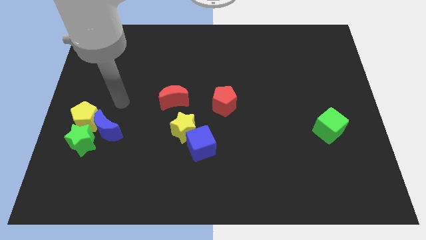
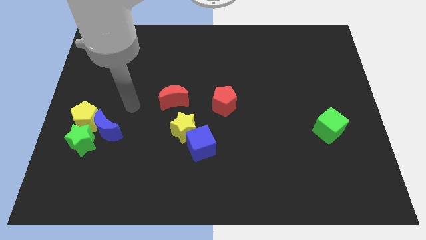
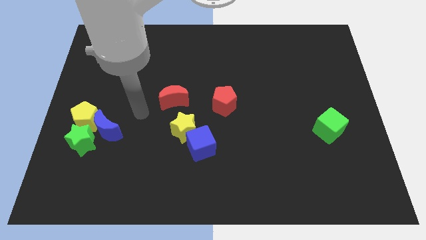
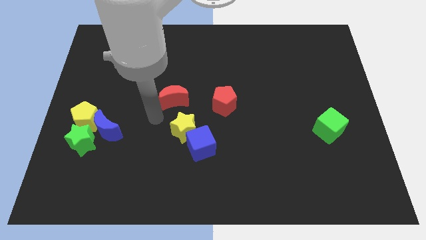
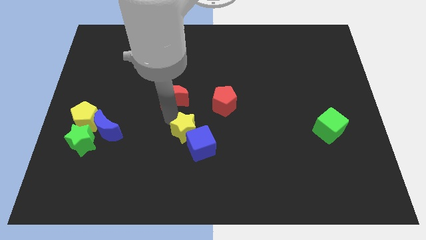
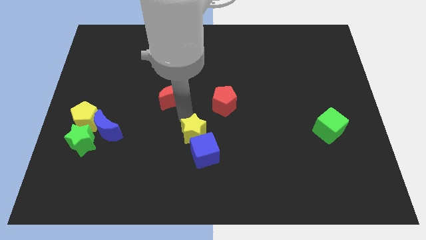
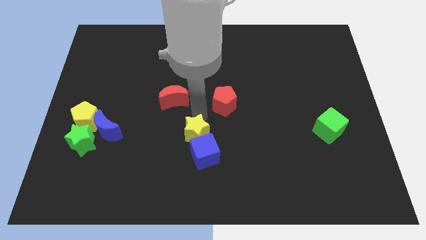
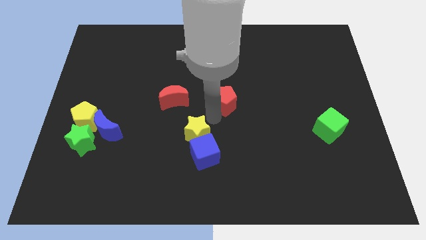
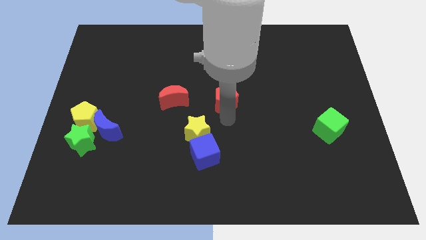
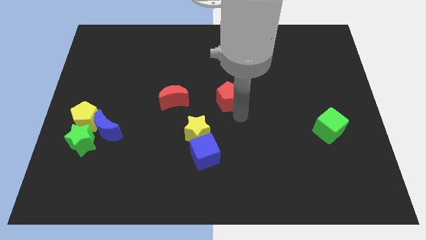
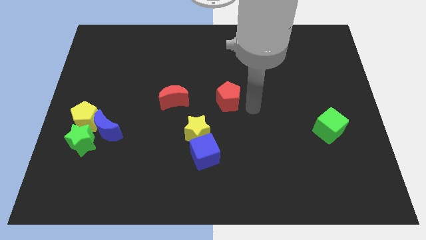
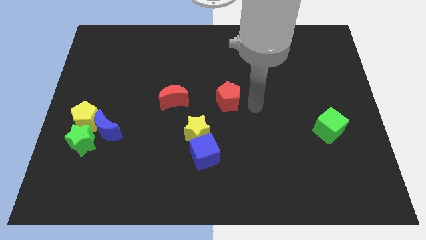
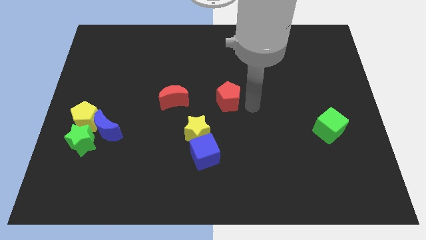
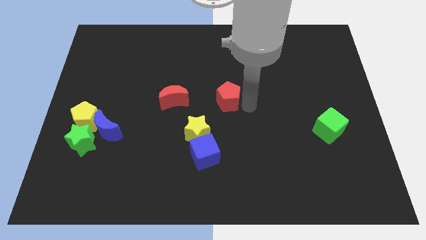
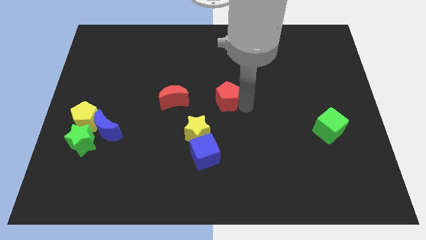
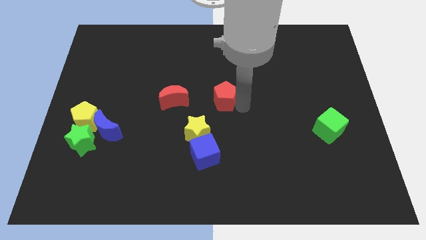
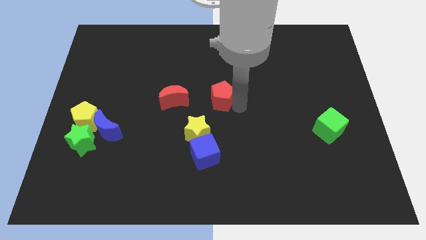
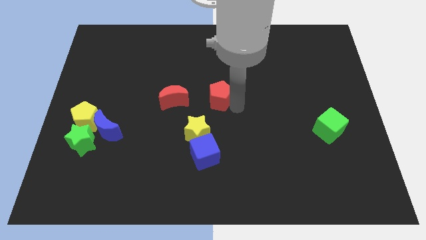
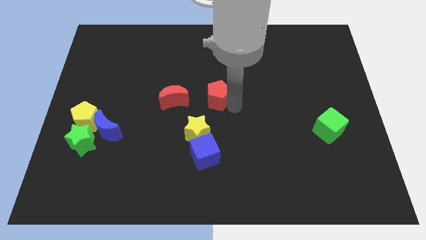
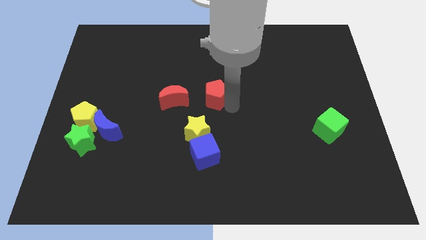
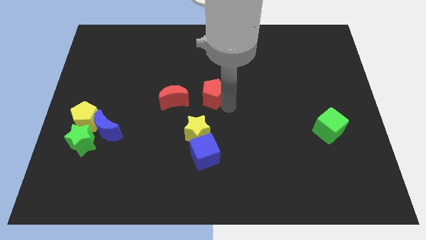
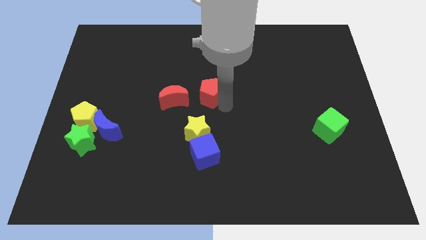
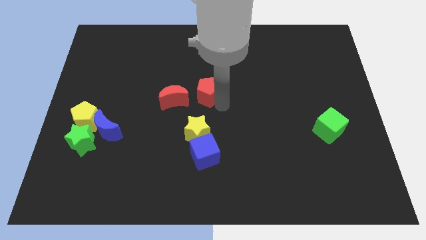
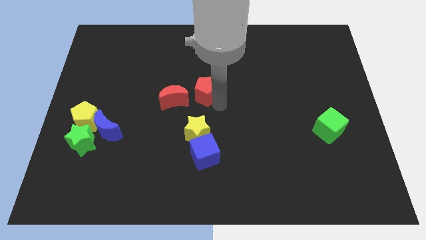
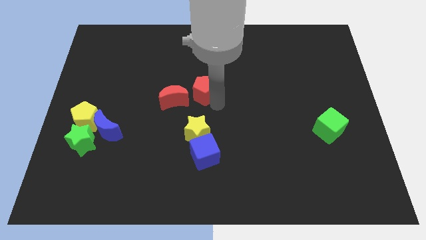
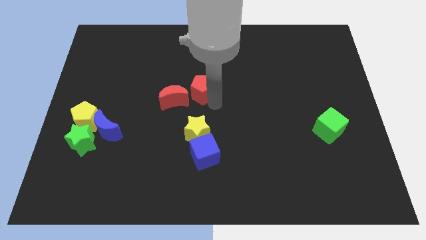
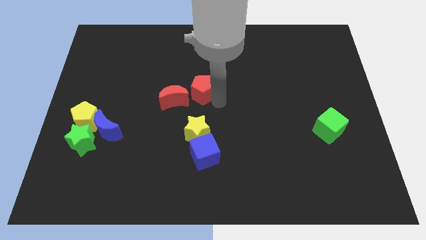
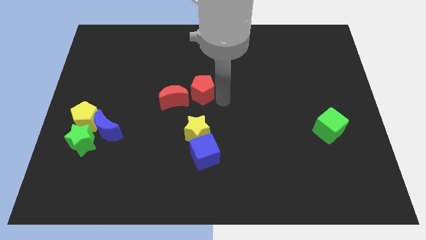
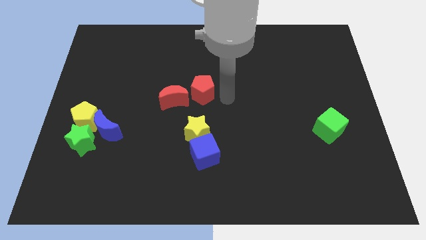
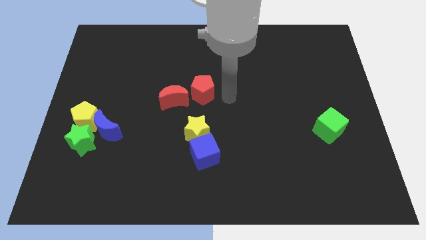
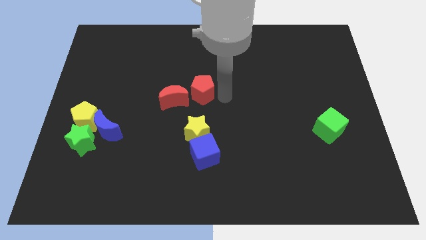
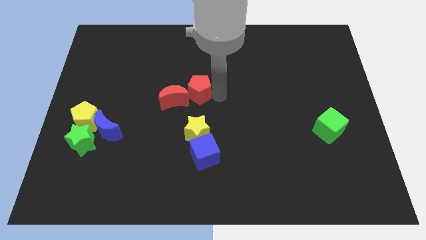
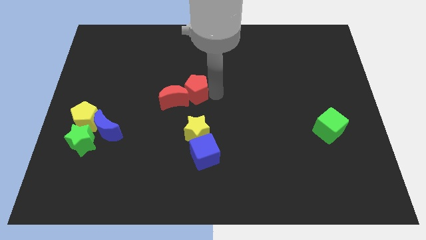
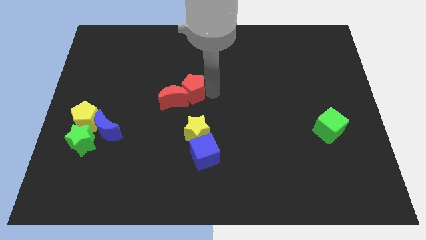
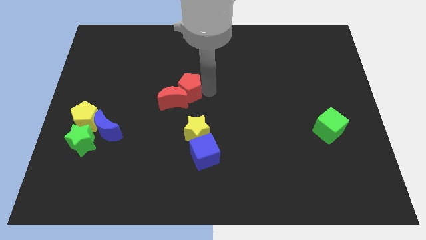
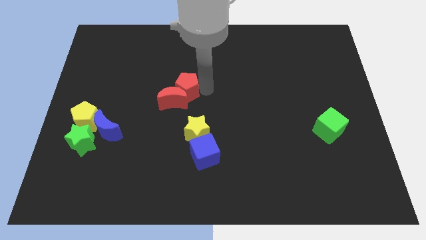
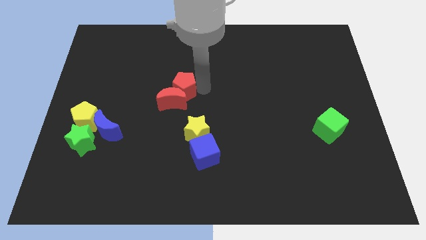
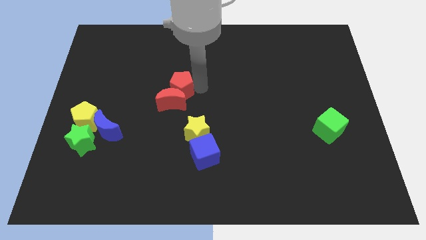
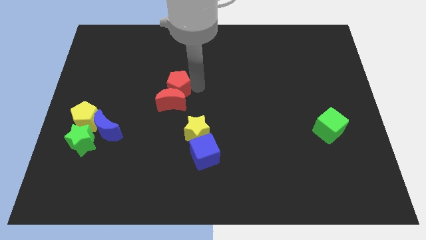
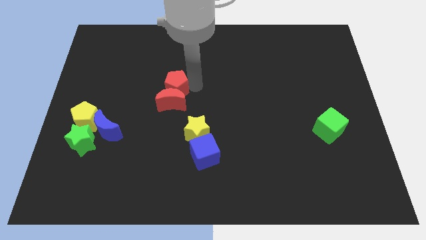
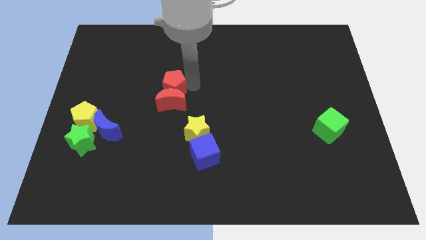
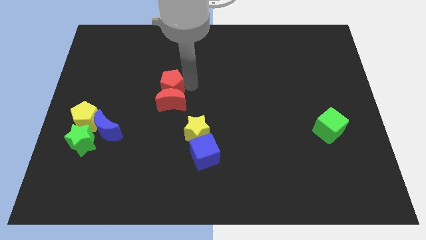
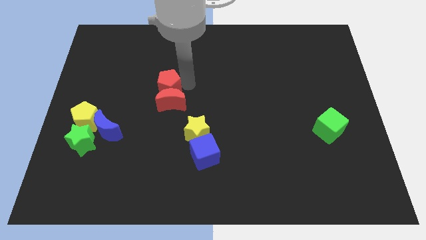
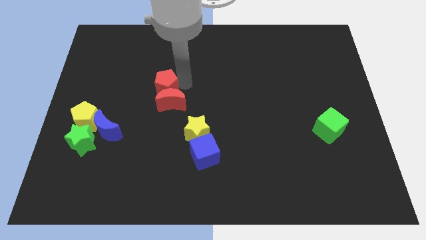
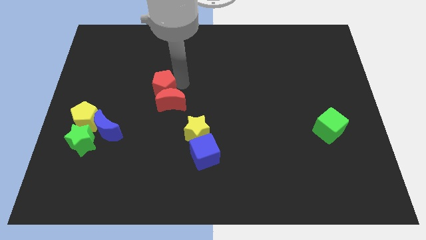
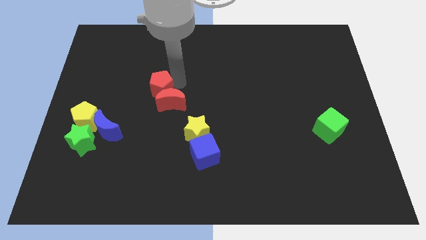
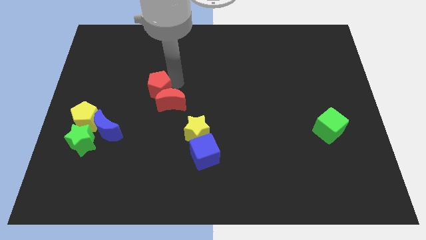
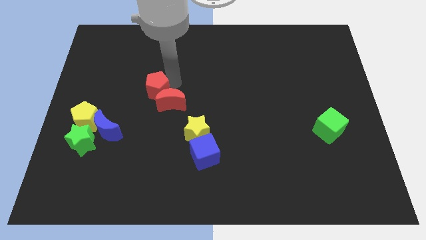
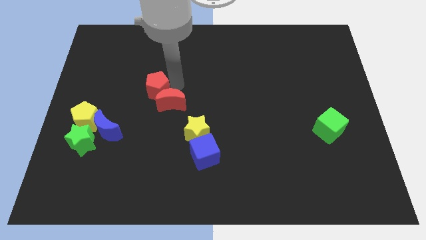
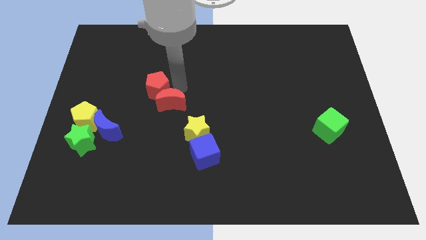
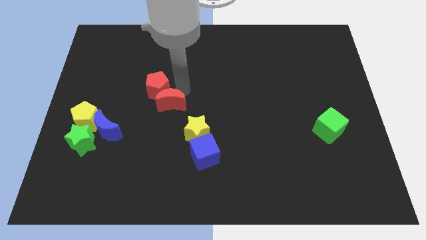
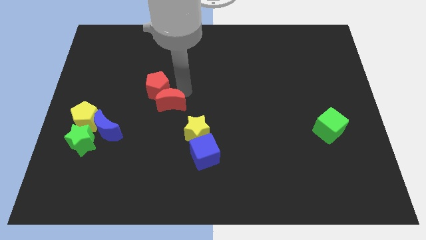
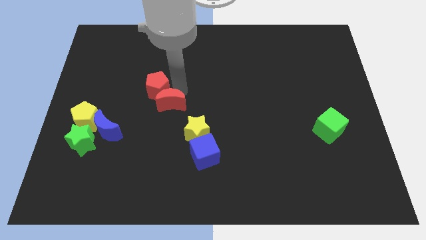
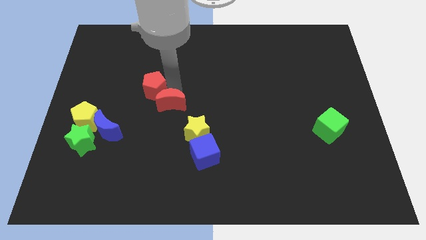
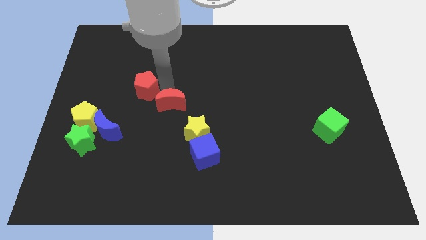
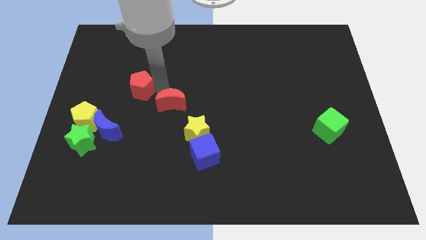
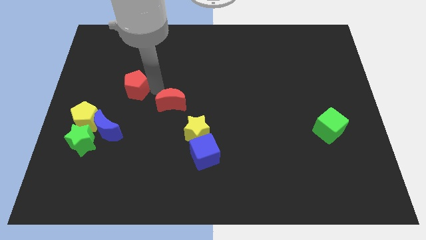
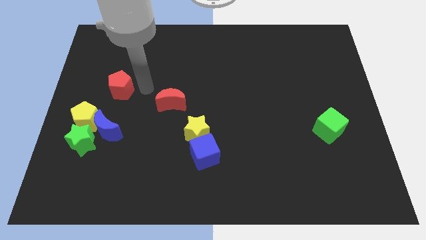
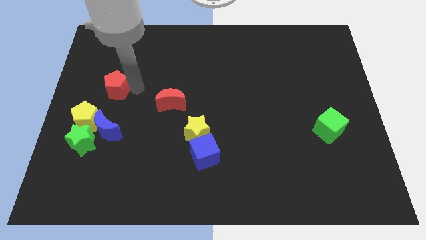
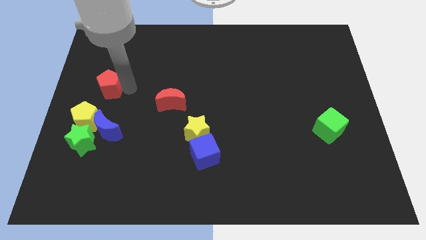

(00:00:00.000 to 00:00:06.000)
put the red pentagon to the left side of the board

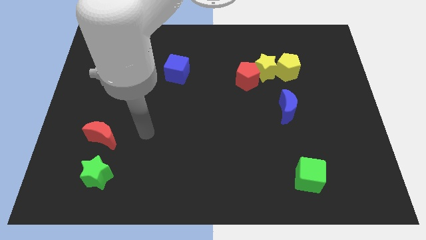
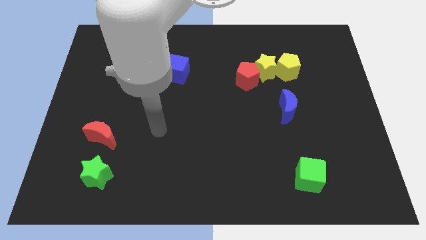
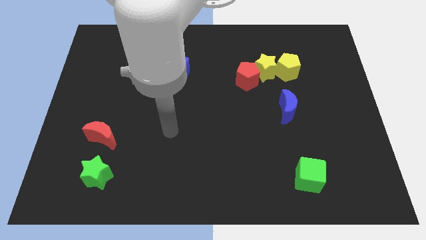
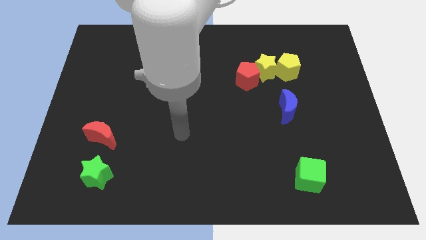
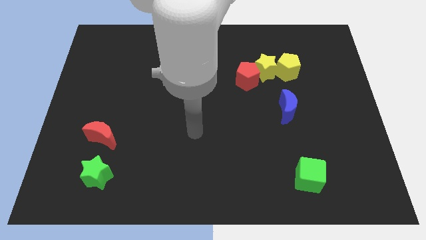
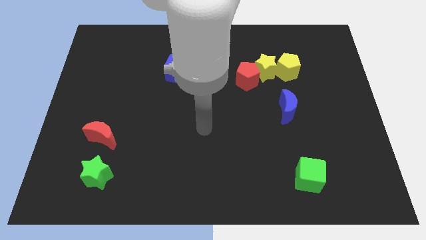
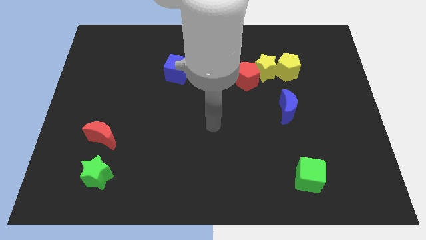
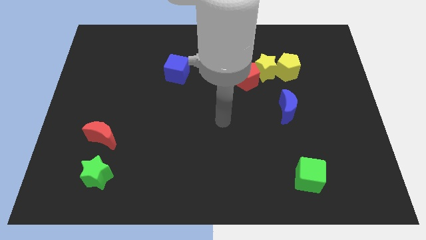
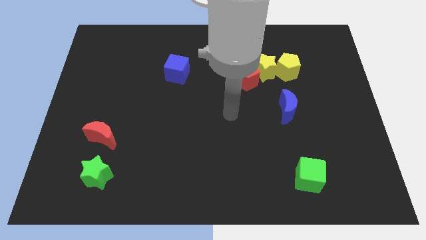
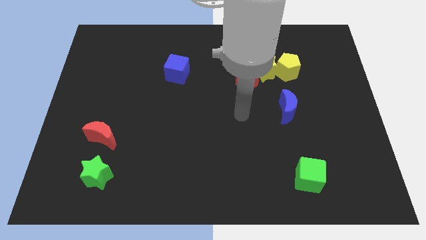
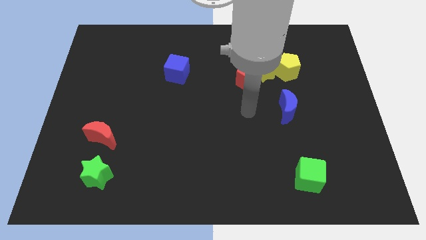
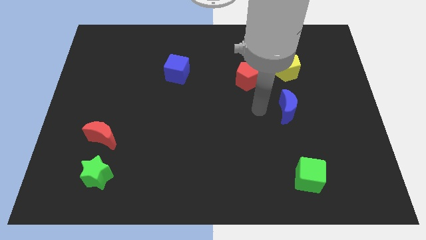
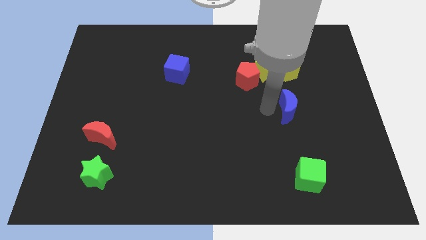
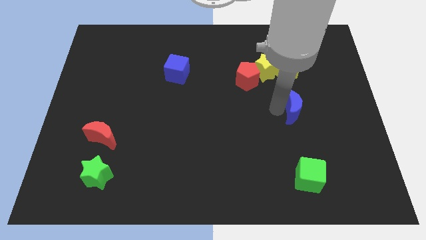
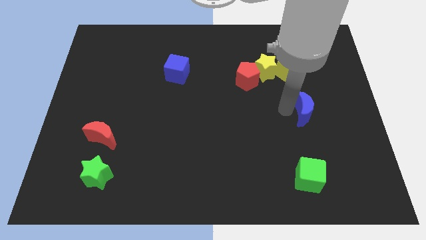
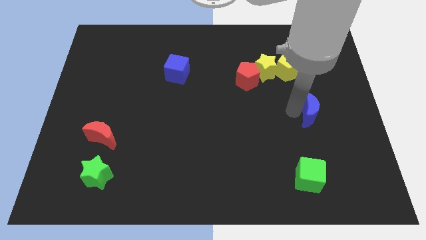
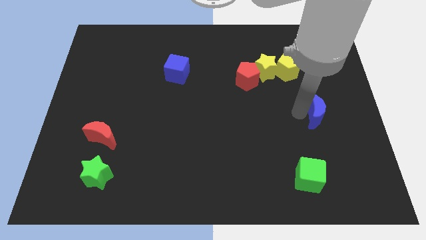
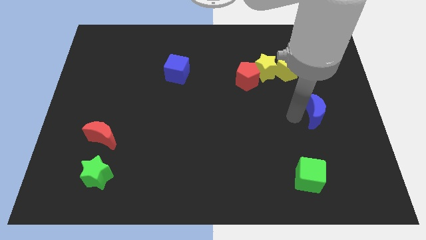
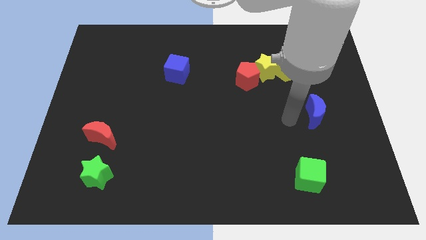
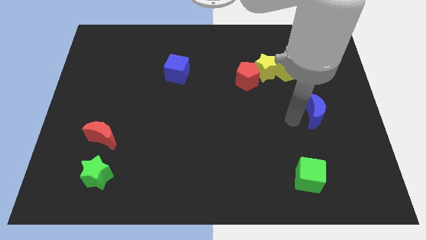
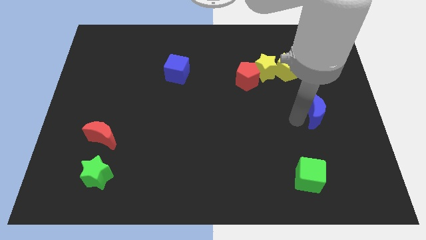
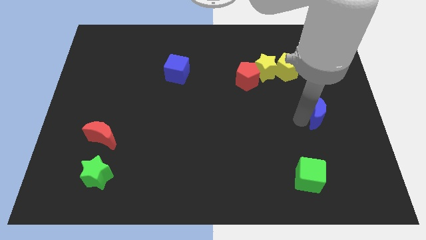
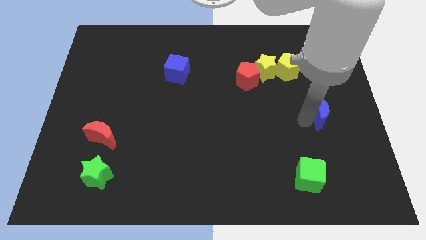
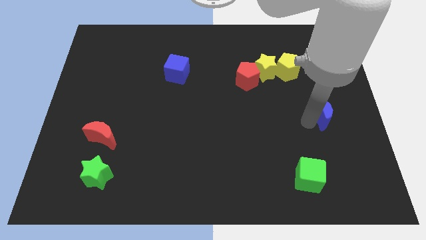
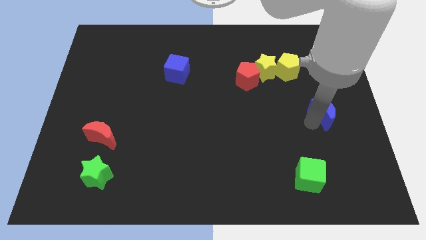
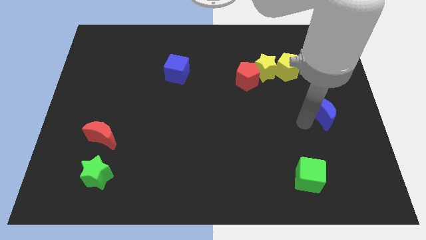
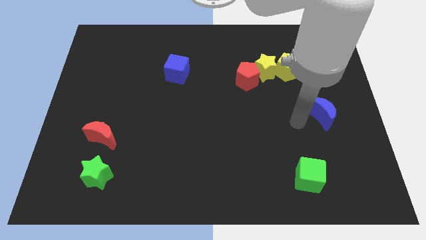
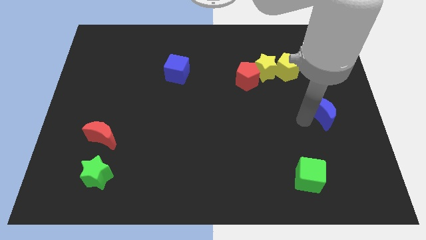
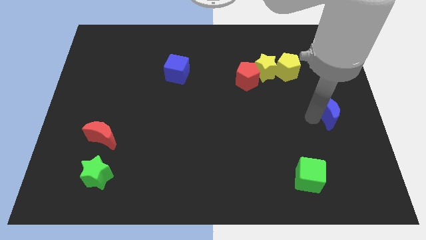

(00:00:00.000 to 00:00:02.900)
push the blue moon to the center right
